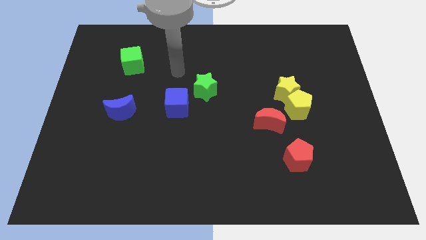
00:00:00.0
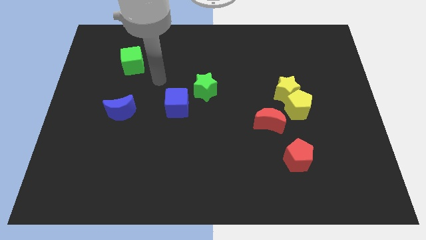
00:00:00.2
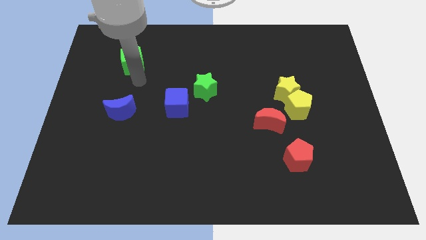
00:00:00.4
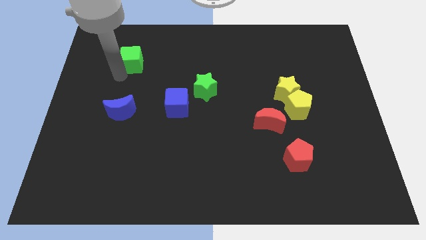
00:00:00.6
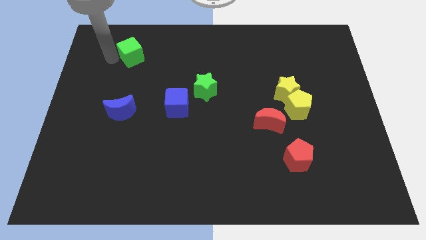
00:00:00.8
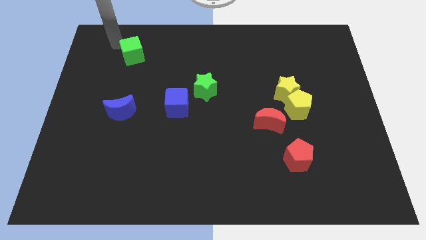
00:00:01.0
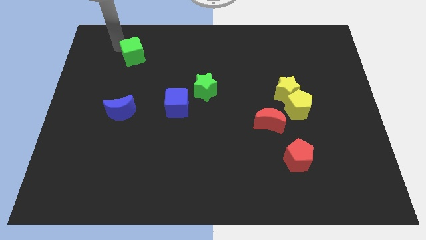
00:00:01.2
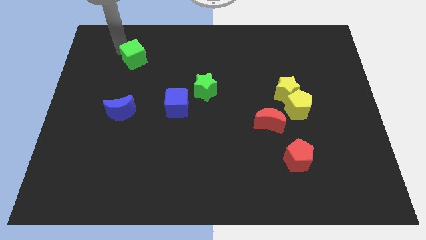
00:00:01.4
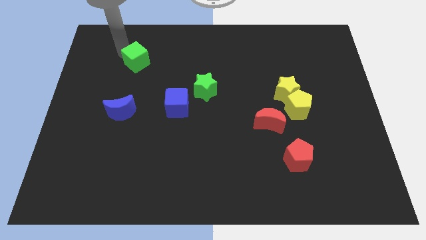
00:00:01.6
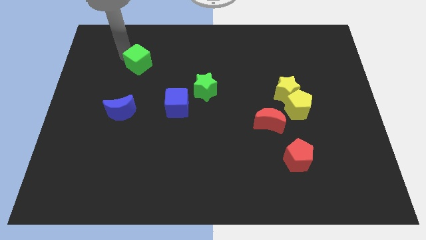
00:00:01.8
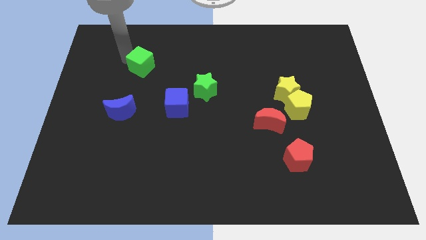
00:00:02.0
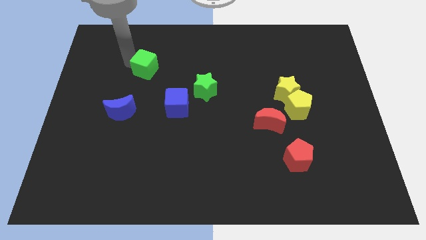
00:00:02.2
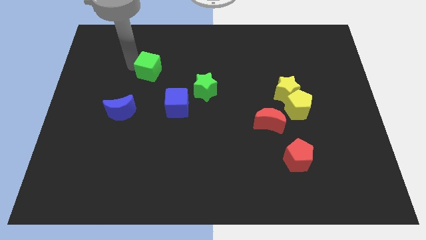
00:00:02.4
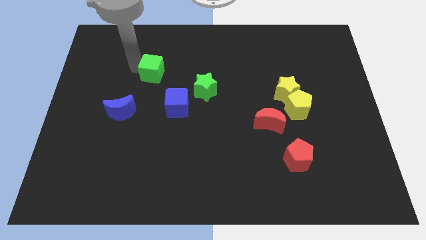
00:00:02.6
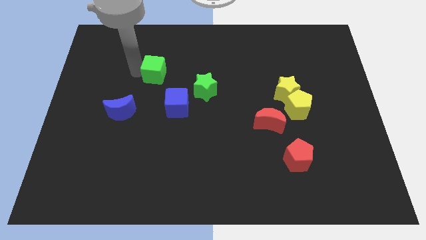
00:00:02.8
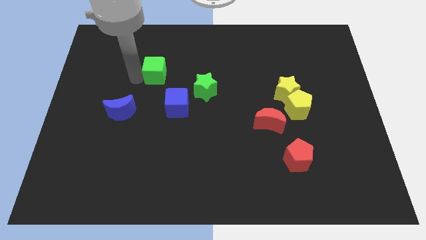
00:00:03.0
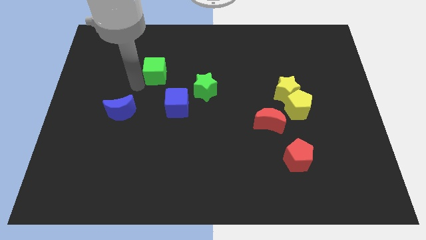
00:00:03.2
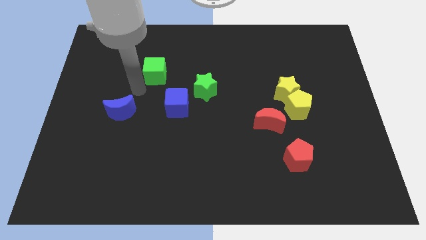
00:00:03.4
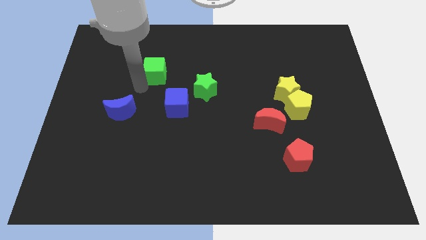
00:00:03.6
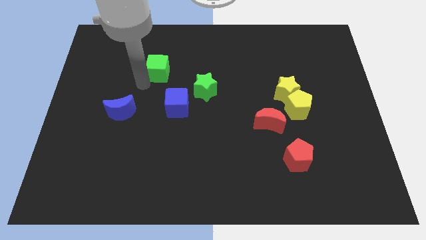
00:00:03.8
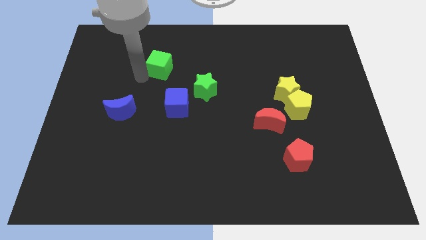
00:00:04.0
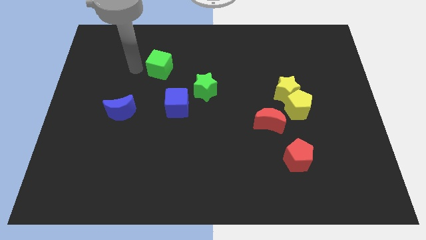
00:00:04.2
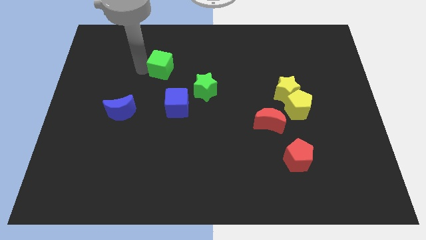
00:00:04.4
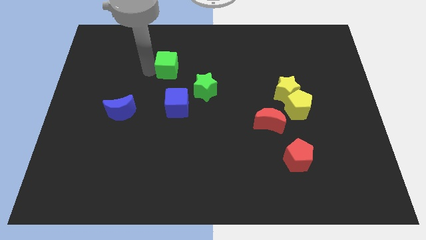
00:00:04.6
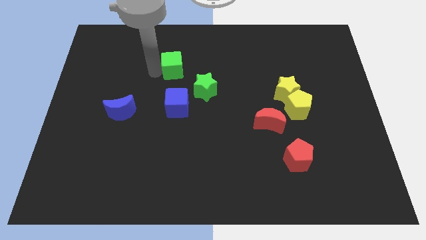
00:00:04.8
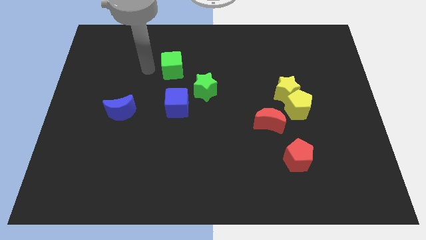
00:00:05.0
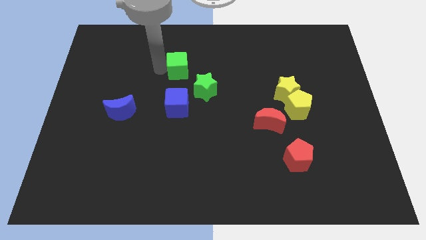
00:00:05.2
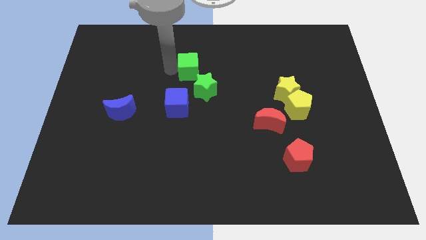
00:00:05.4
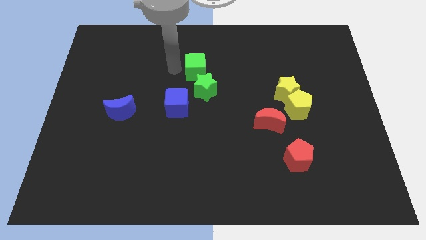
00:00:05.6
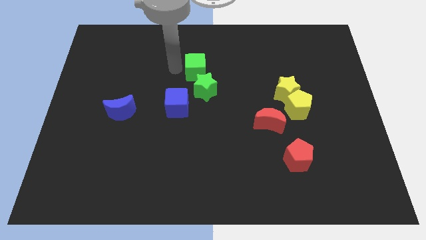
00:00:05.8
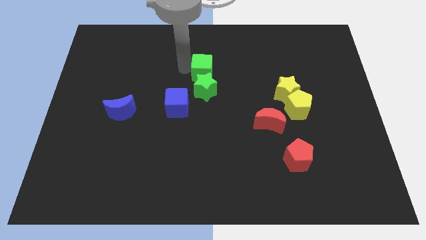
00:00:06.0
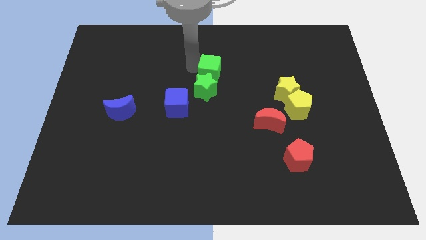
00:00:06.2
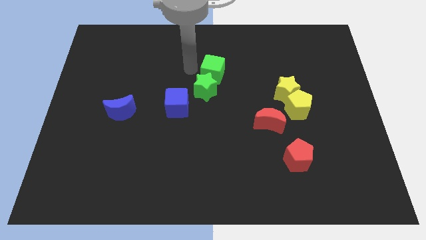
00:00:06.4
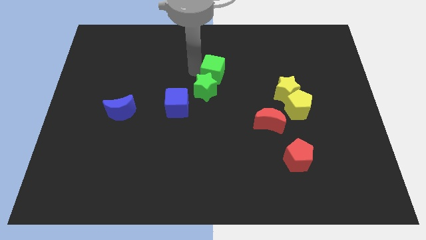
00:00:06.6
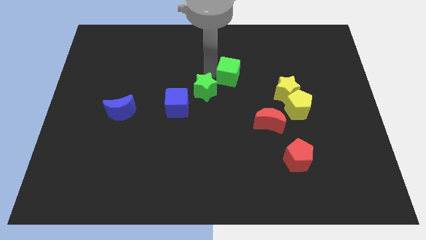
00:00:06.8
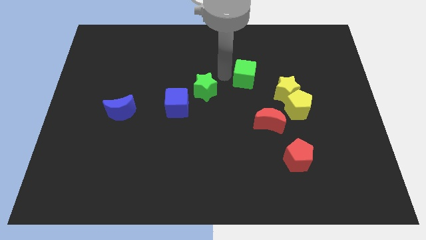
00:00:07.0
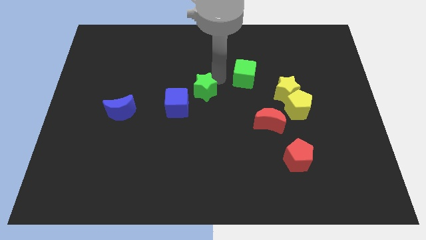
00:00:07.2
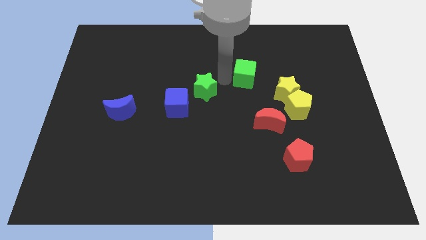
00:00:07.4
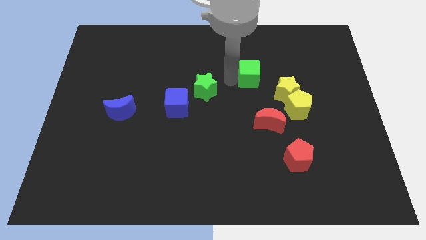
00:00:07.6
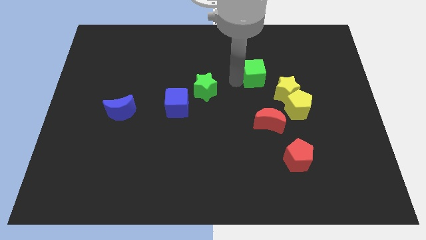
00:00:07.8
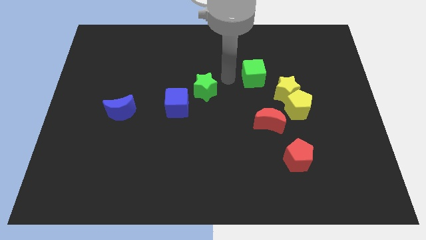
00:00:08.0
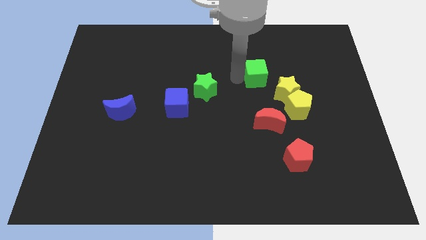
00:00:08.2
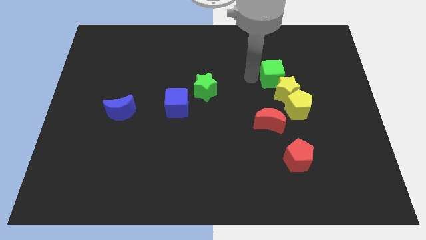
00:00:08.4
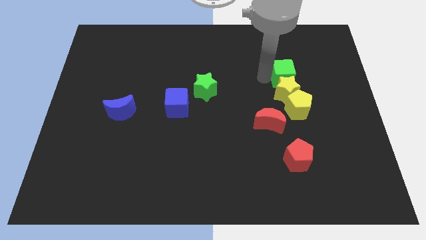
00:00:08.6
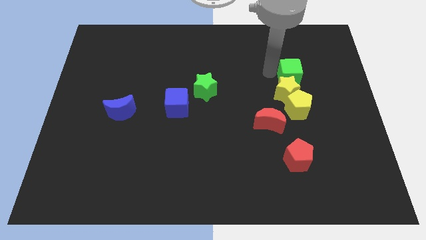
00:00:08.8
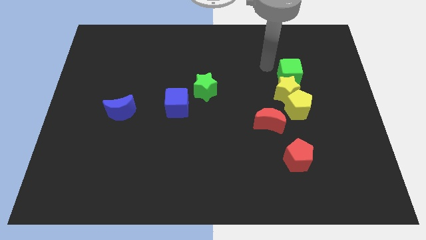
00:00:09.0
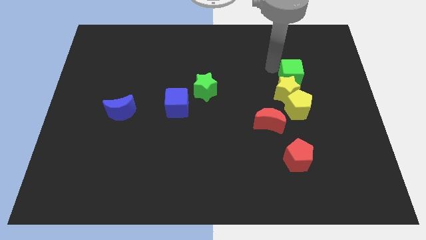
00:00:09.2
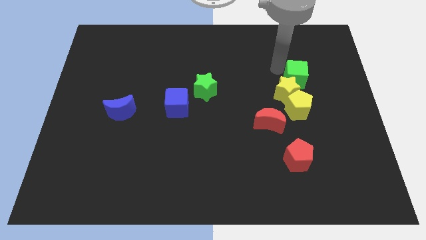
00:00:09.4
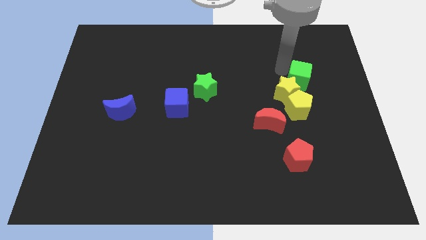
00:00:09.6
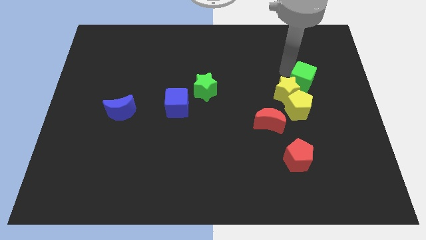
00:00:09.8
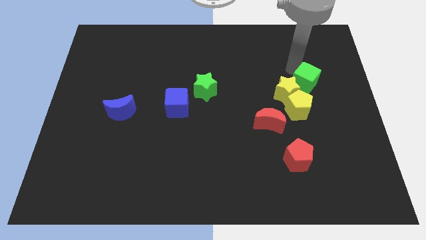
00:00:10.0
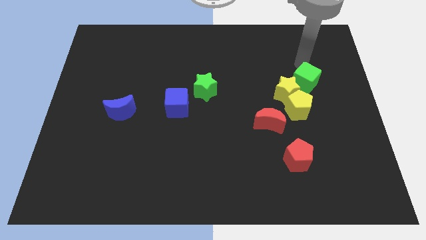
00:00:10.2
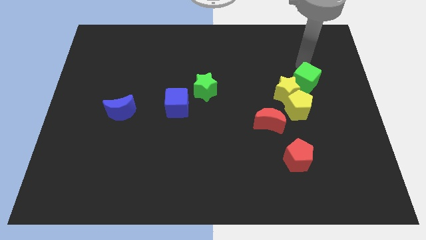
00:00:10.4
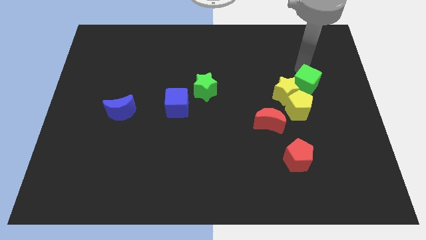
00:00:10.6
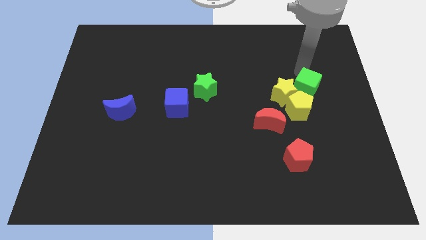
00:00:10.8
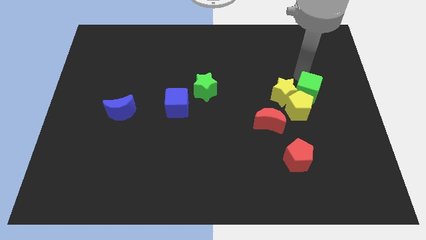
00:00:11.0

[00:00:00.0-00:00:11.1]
put the green cube to the bottom right side of the yellow star

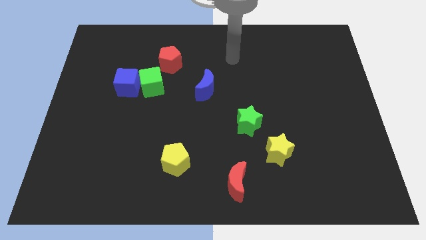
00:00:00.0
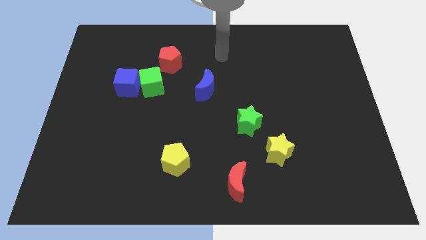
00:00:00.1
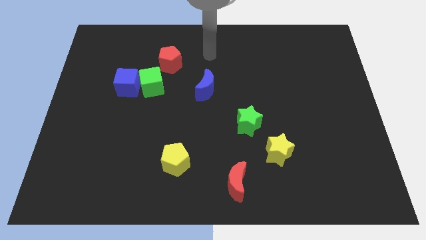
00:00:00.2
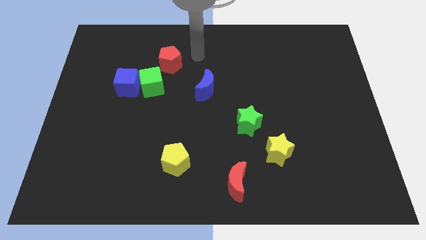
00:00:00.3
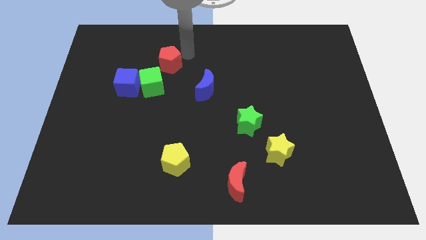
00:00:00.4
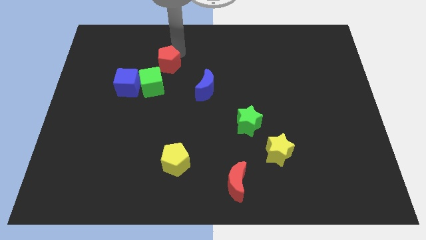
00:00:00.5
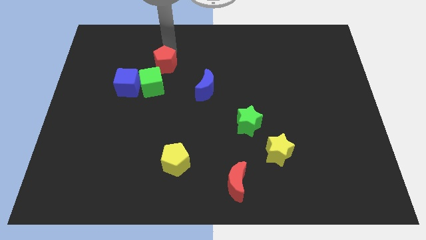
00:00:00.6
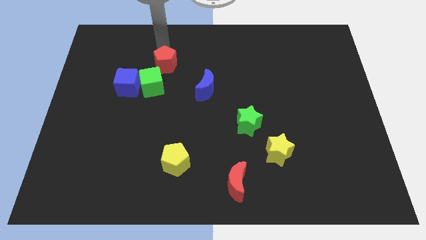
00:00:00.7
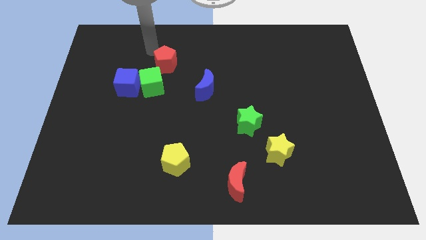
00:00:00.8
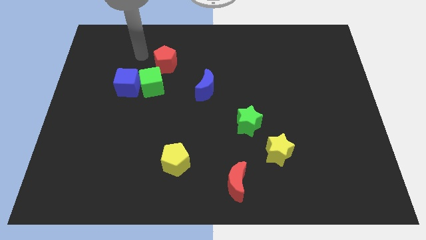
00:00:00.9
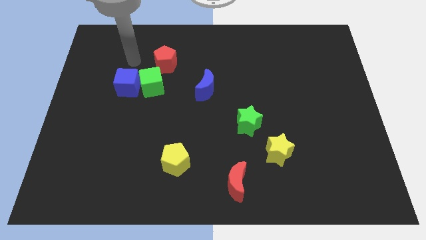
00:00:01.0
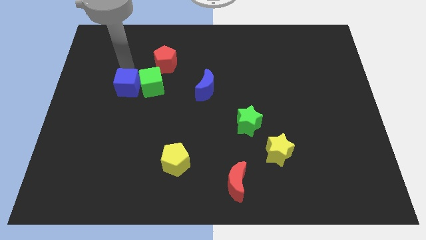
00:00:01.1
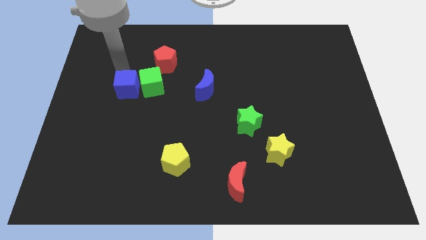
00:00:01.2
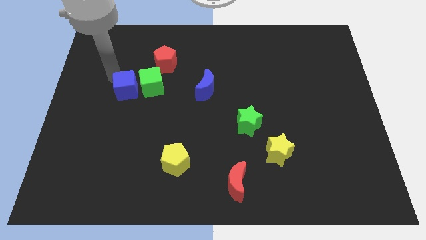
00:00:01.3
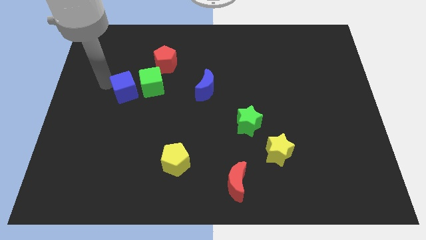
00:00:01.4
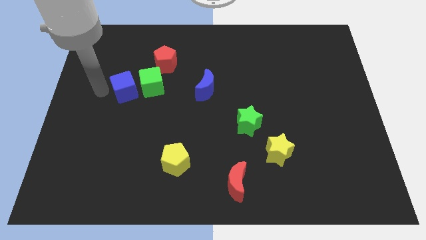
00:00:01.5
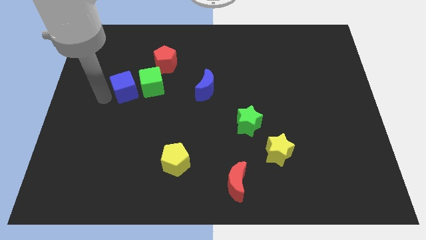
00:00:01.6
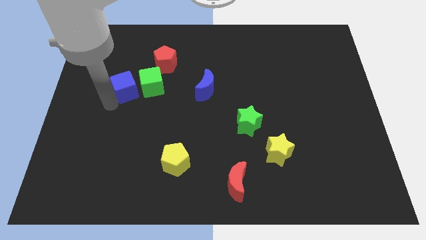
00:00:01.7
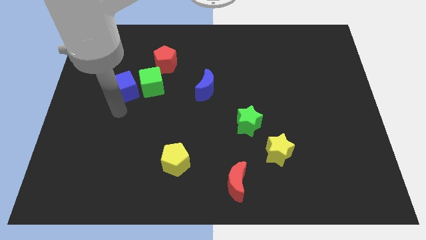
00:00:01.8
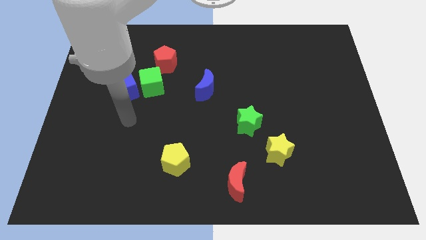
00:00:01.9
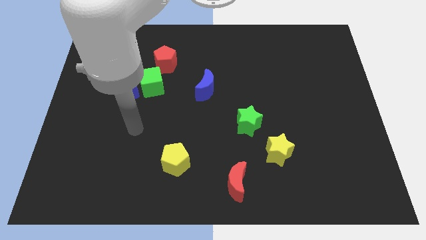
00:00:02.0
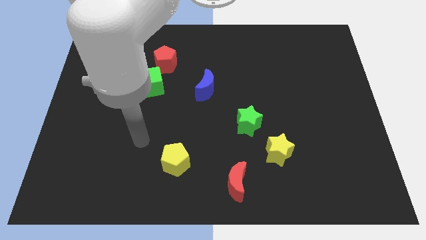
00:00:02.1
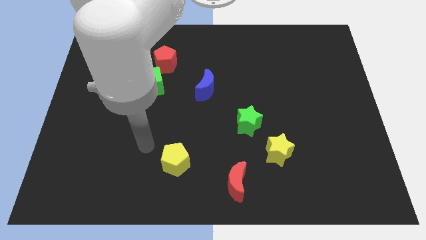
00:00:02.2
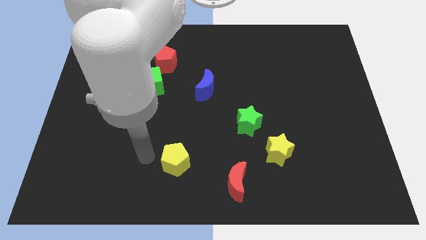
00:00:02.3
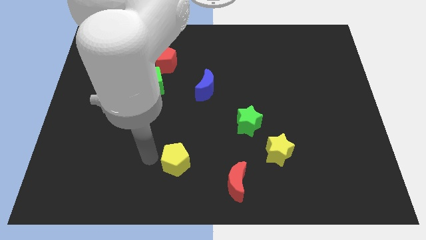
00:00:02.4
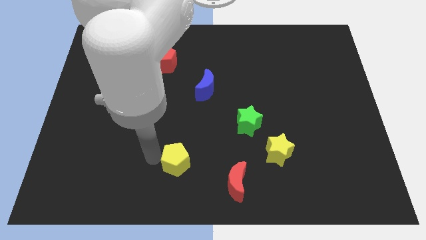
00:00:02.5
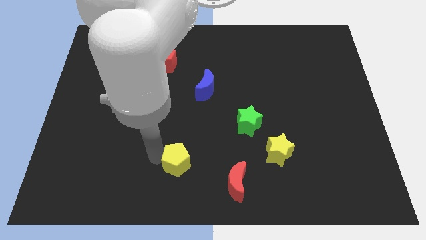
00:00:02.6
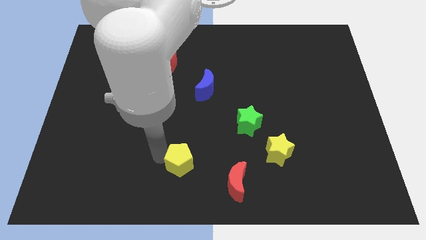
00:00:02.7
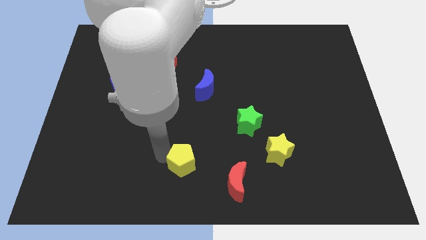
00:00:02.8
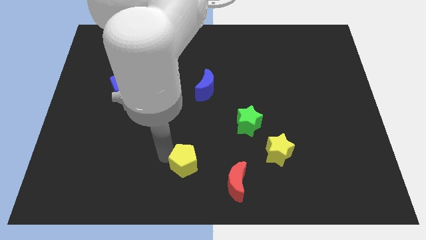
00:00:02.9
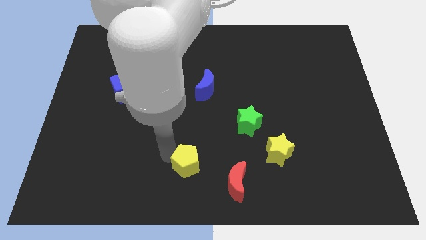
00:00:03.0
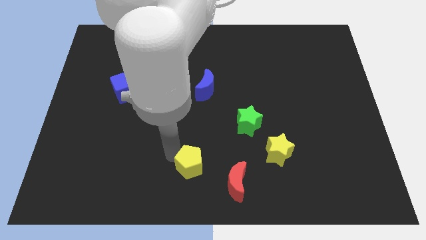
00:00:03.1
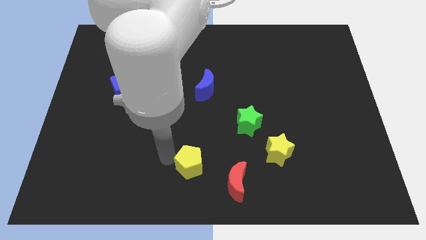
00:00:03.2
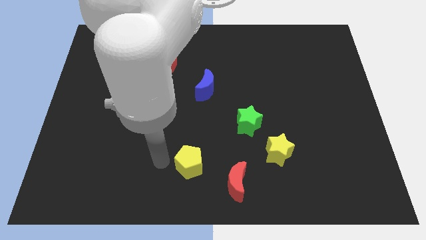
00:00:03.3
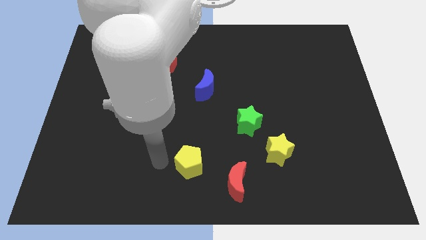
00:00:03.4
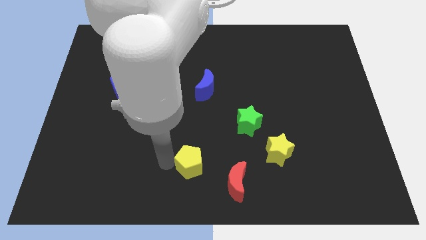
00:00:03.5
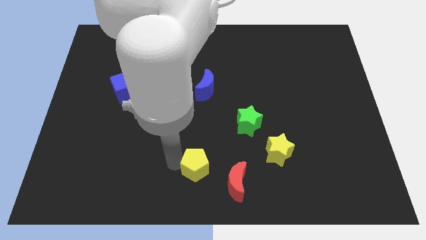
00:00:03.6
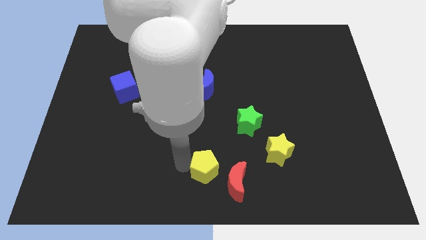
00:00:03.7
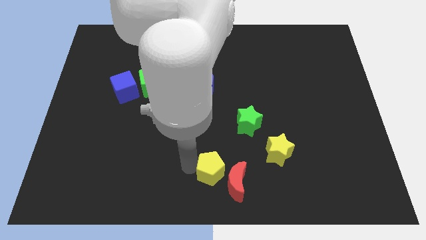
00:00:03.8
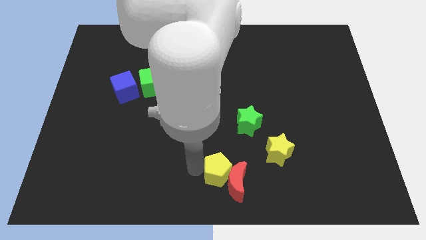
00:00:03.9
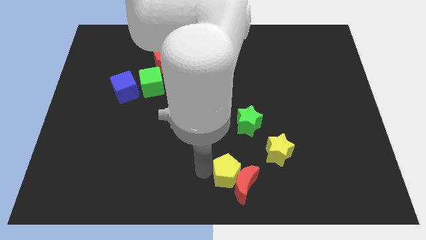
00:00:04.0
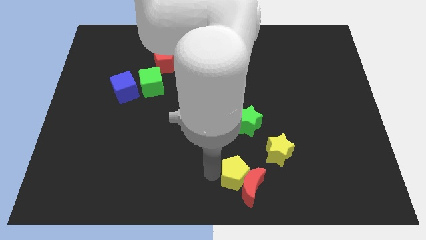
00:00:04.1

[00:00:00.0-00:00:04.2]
move the yellow pentagon below the green star
